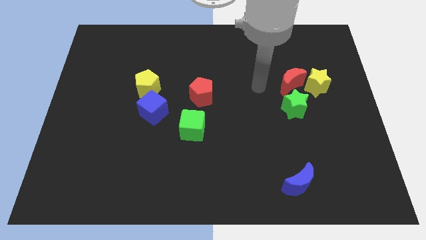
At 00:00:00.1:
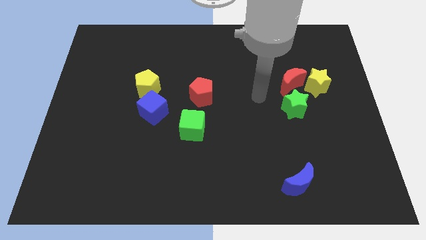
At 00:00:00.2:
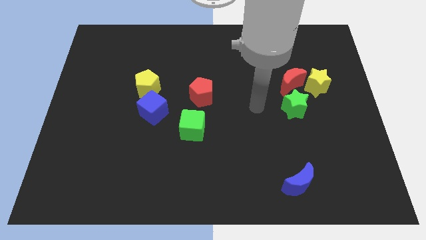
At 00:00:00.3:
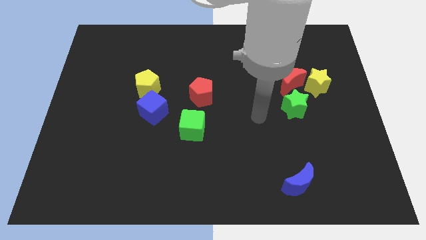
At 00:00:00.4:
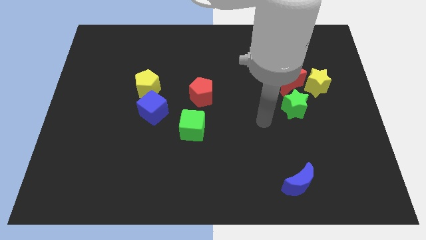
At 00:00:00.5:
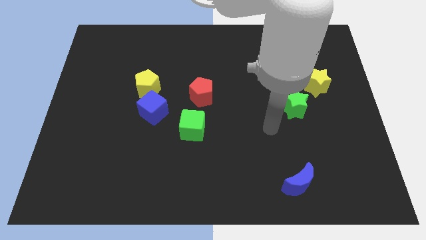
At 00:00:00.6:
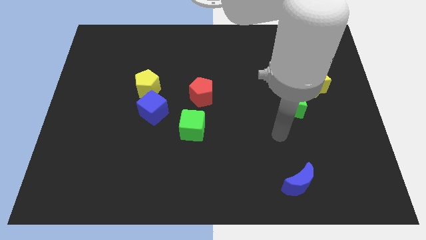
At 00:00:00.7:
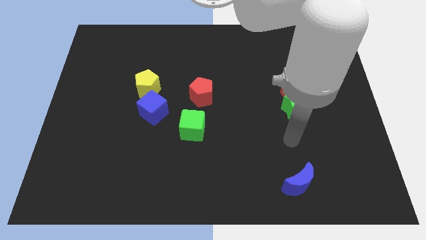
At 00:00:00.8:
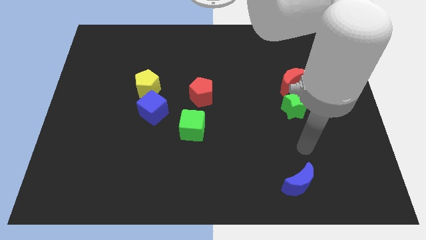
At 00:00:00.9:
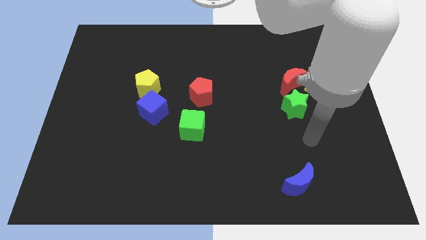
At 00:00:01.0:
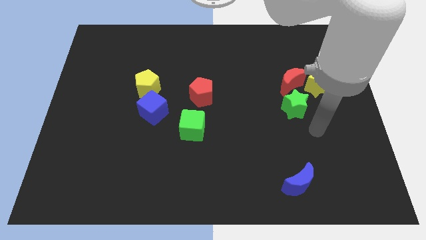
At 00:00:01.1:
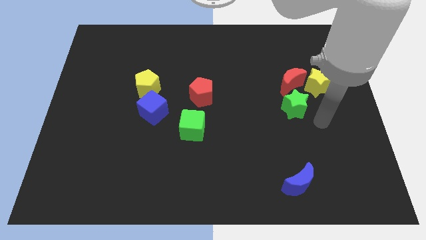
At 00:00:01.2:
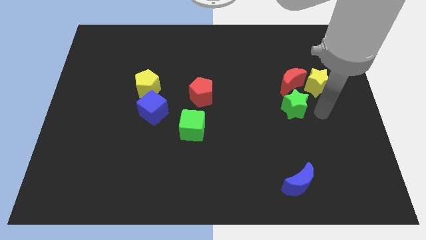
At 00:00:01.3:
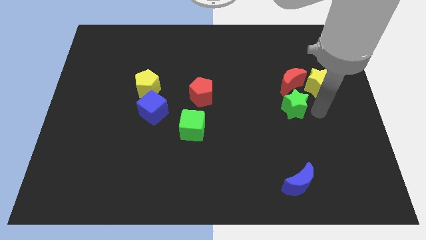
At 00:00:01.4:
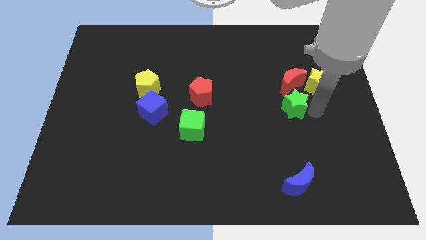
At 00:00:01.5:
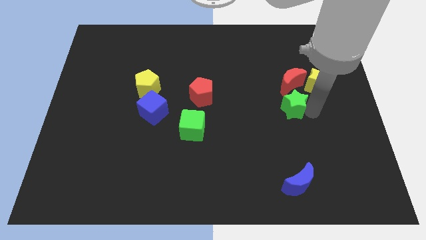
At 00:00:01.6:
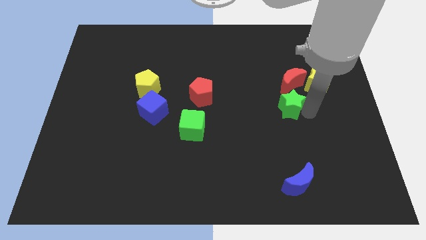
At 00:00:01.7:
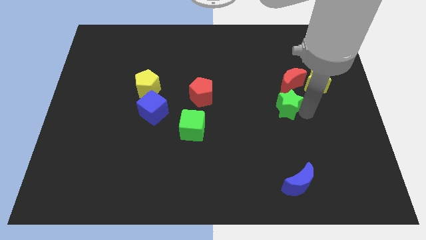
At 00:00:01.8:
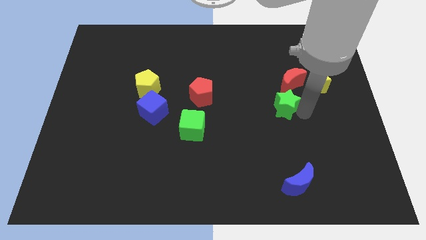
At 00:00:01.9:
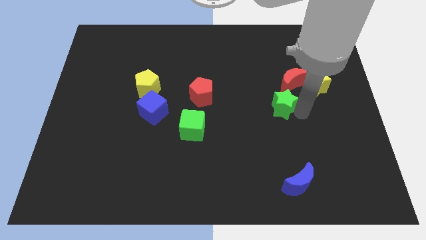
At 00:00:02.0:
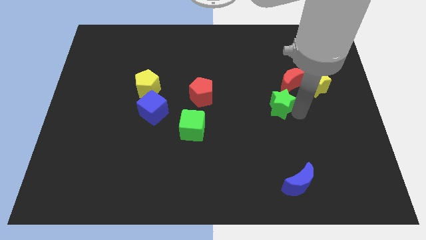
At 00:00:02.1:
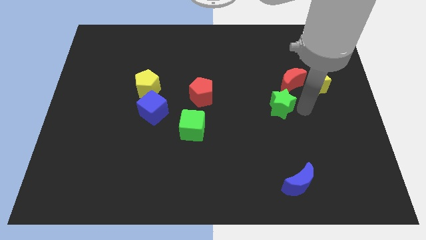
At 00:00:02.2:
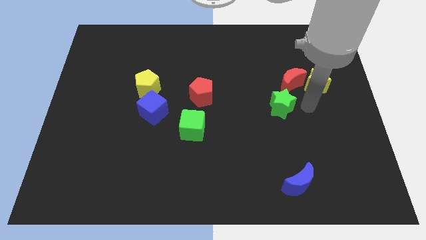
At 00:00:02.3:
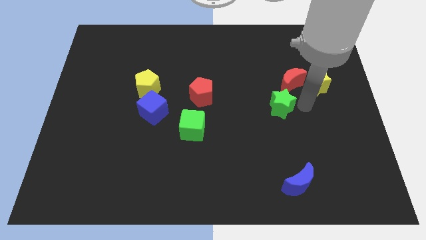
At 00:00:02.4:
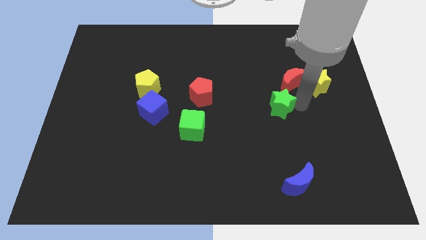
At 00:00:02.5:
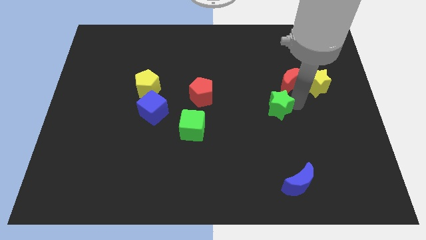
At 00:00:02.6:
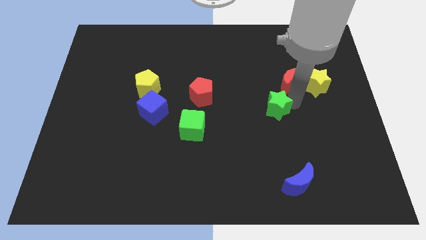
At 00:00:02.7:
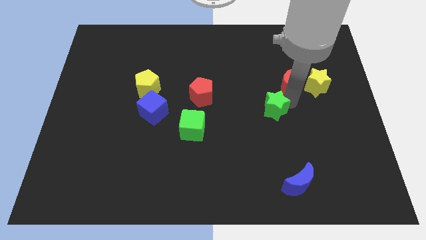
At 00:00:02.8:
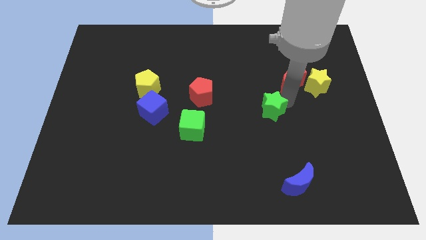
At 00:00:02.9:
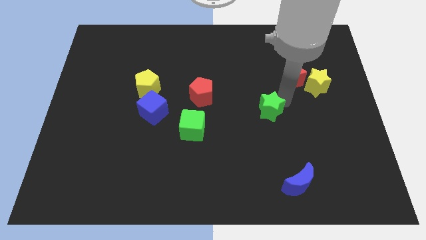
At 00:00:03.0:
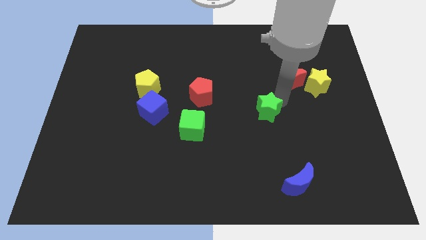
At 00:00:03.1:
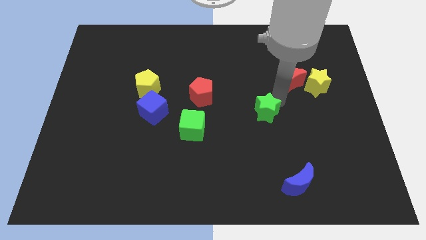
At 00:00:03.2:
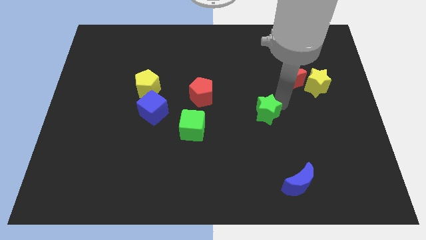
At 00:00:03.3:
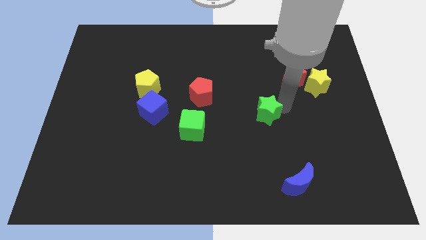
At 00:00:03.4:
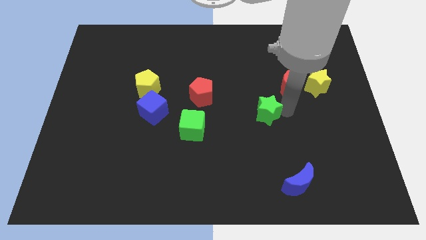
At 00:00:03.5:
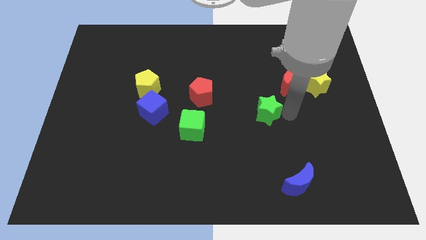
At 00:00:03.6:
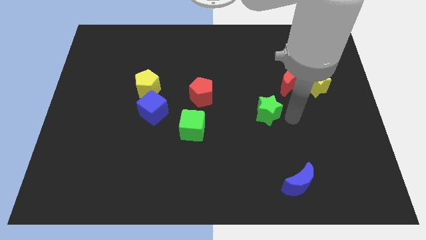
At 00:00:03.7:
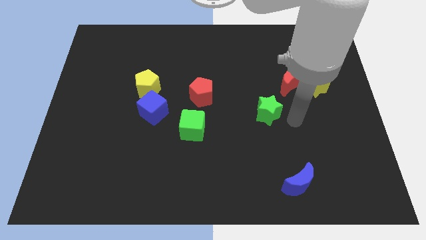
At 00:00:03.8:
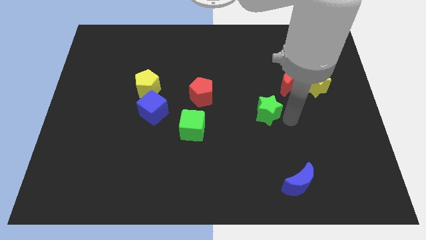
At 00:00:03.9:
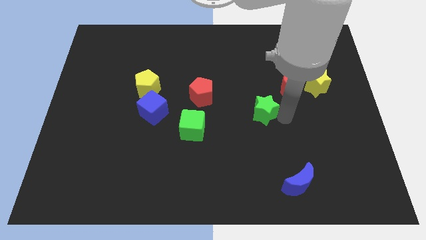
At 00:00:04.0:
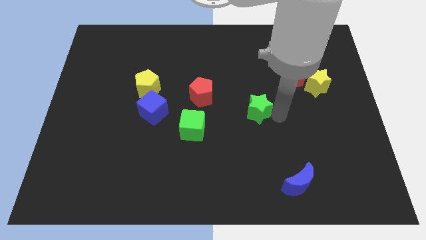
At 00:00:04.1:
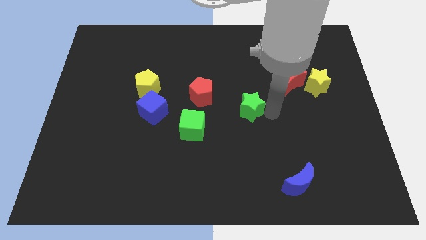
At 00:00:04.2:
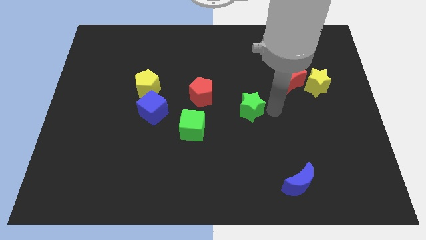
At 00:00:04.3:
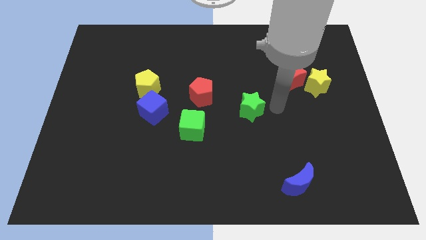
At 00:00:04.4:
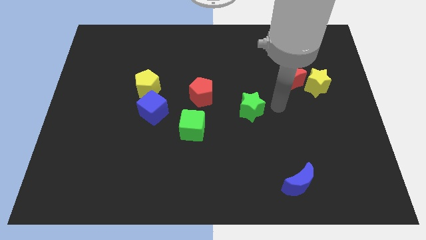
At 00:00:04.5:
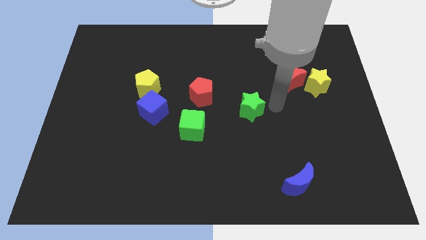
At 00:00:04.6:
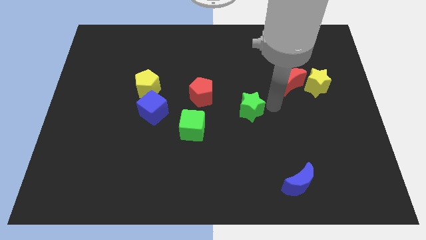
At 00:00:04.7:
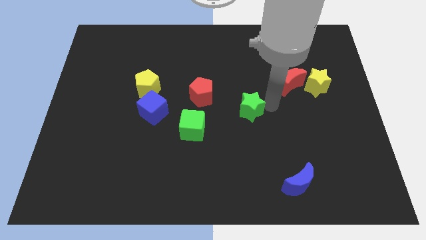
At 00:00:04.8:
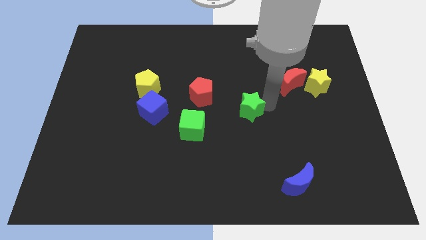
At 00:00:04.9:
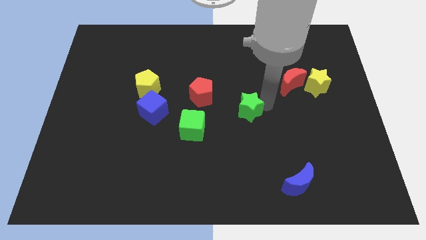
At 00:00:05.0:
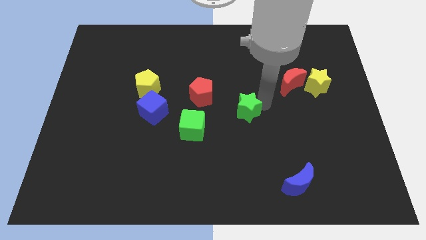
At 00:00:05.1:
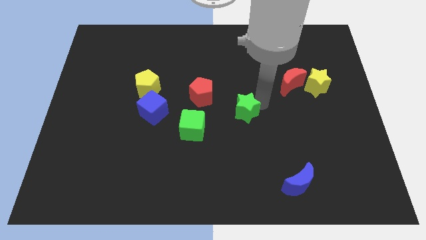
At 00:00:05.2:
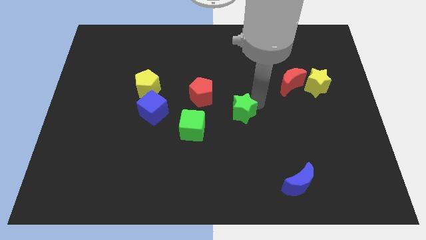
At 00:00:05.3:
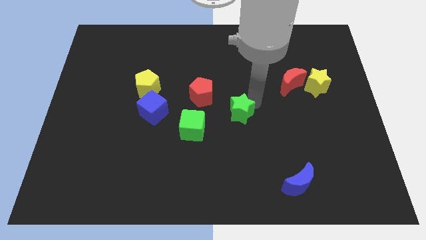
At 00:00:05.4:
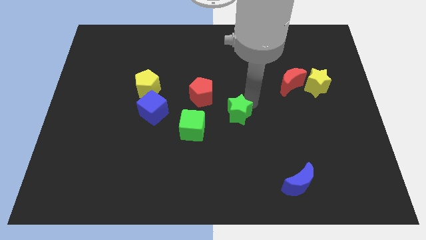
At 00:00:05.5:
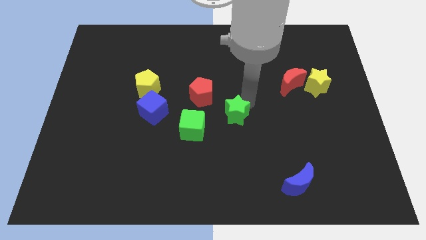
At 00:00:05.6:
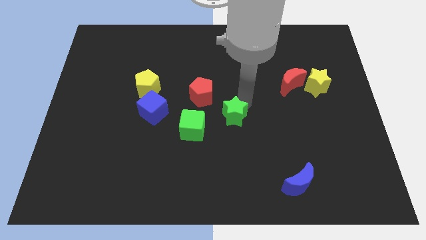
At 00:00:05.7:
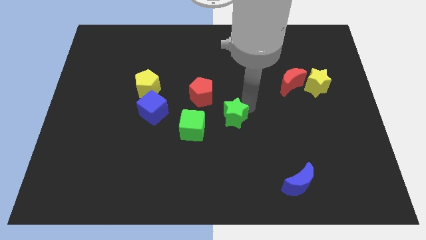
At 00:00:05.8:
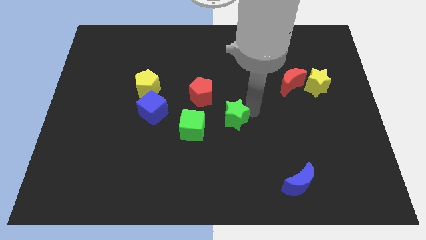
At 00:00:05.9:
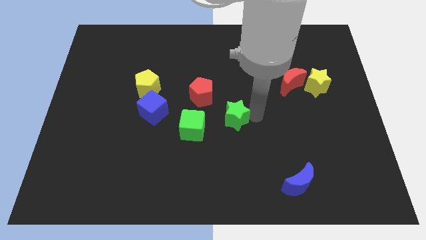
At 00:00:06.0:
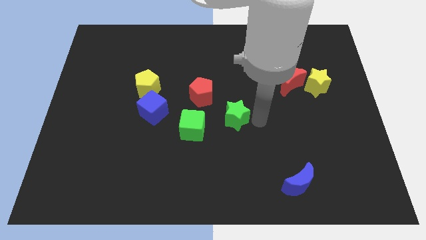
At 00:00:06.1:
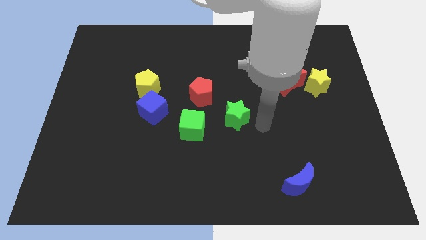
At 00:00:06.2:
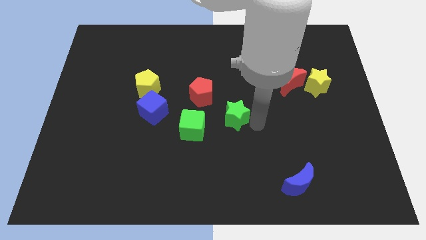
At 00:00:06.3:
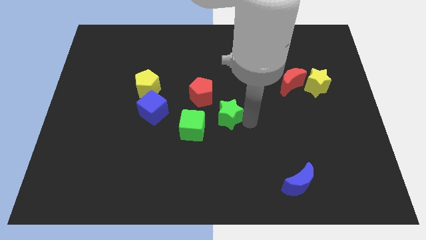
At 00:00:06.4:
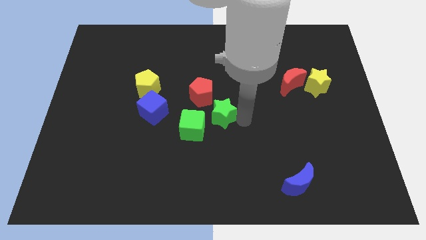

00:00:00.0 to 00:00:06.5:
move the green star right of the blue cube
